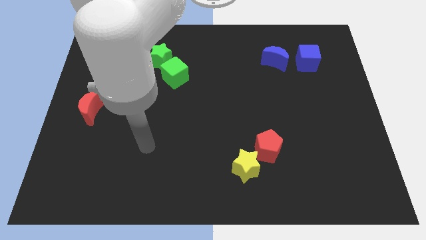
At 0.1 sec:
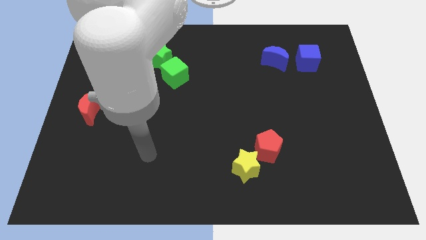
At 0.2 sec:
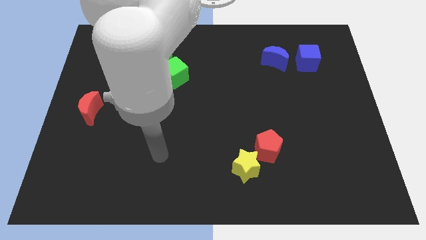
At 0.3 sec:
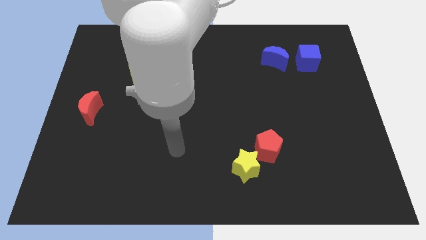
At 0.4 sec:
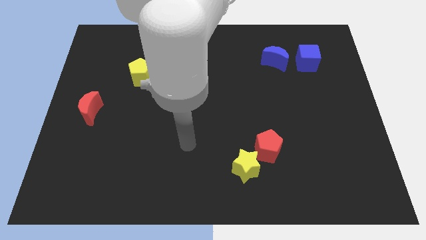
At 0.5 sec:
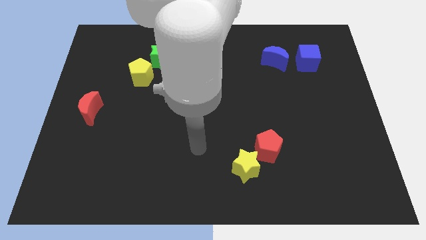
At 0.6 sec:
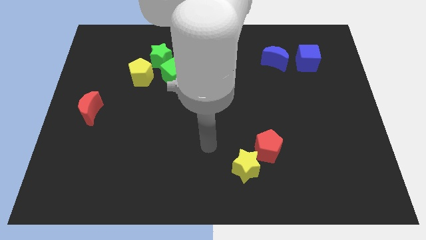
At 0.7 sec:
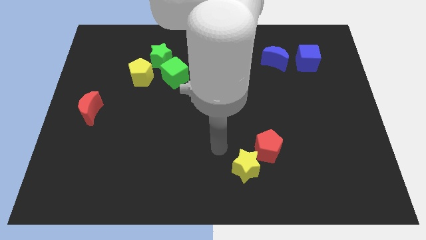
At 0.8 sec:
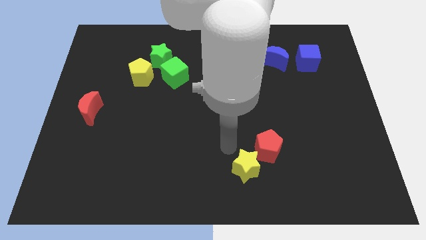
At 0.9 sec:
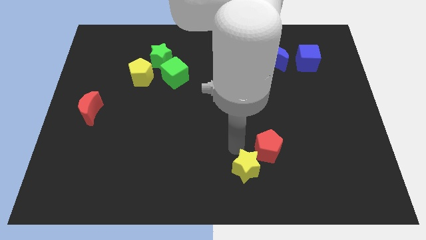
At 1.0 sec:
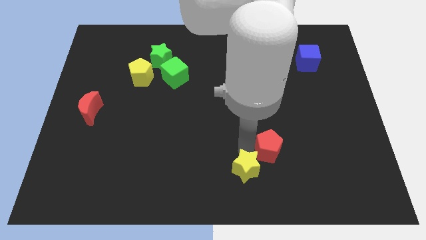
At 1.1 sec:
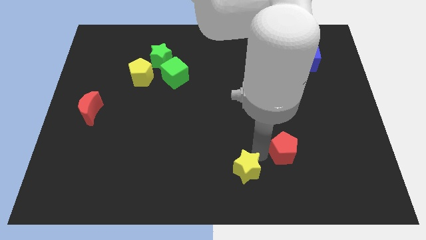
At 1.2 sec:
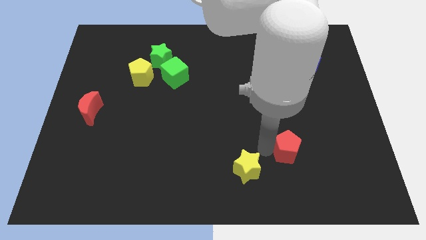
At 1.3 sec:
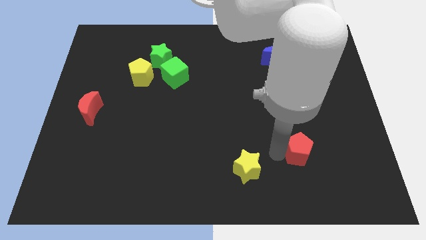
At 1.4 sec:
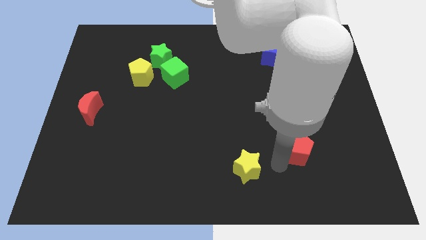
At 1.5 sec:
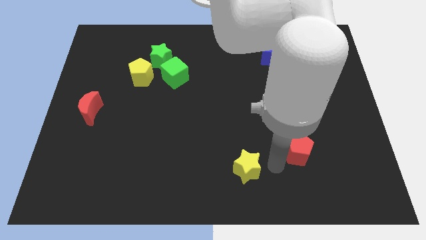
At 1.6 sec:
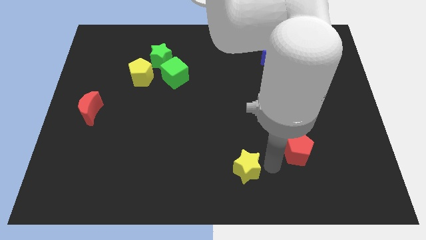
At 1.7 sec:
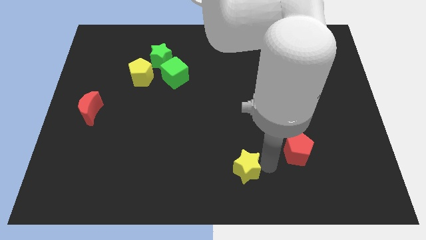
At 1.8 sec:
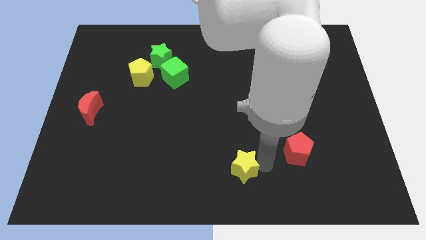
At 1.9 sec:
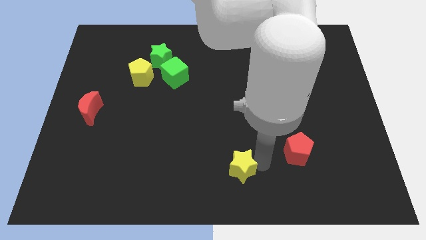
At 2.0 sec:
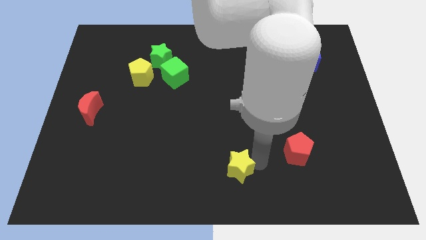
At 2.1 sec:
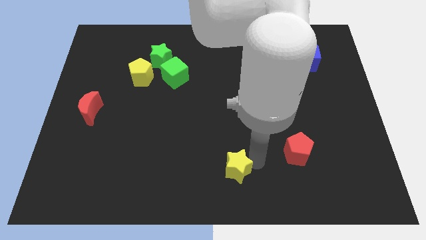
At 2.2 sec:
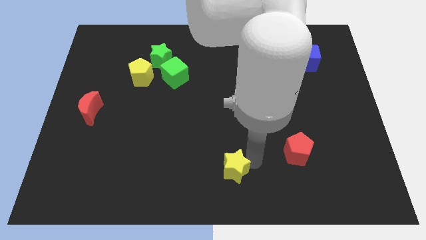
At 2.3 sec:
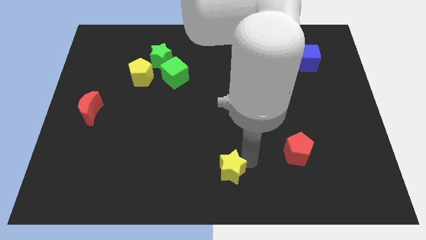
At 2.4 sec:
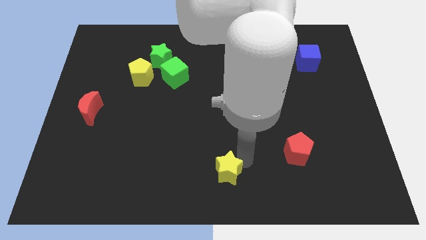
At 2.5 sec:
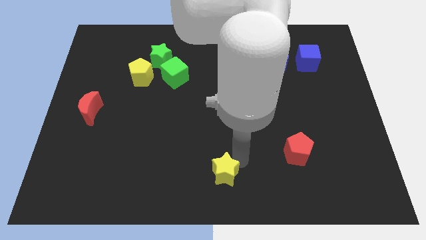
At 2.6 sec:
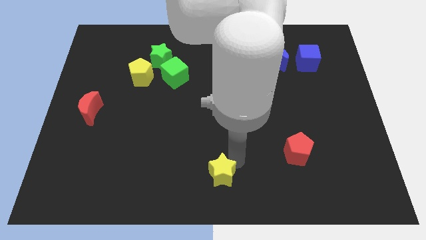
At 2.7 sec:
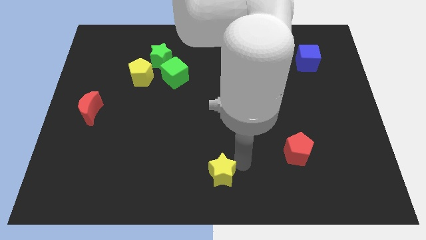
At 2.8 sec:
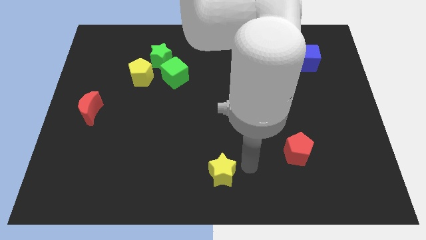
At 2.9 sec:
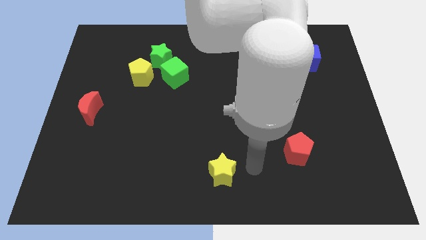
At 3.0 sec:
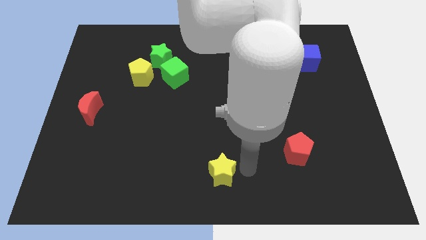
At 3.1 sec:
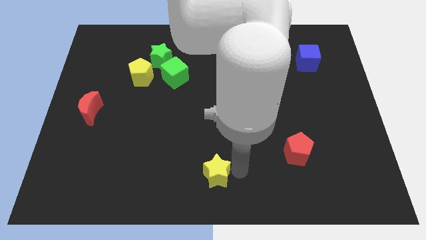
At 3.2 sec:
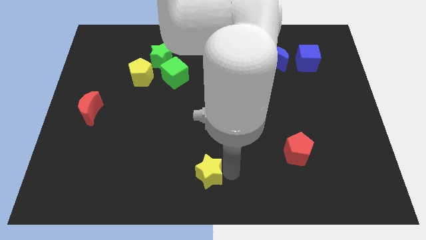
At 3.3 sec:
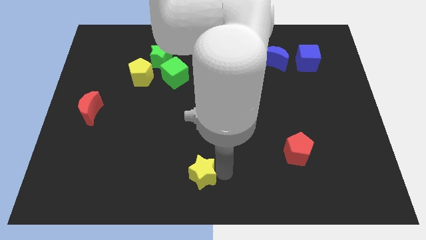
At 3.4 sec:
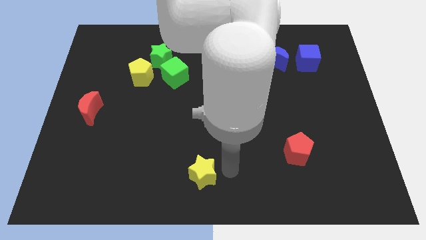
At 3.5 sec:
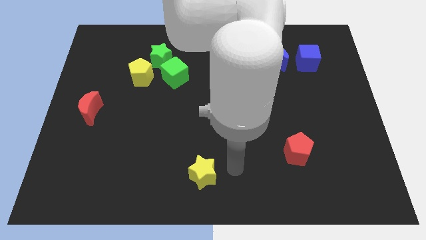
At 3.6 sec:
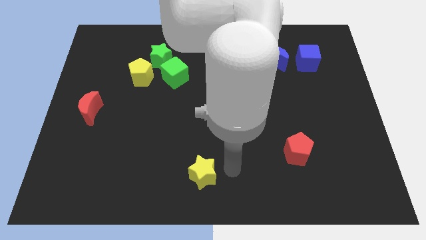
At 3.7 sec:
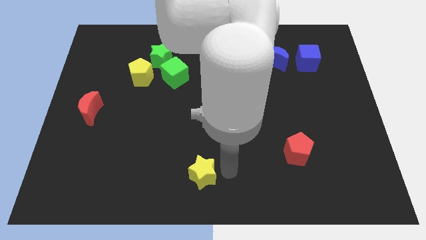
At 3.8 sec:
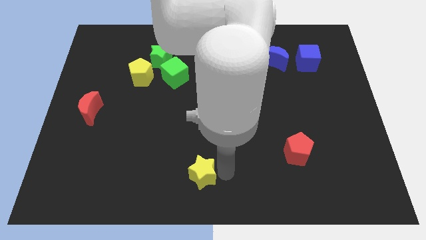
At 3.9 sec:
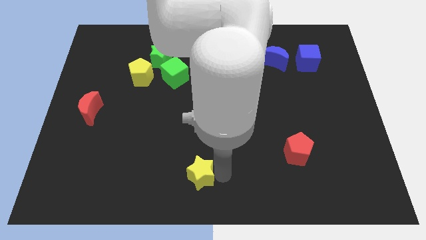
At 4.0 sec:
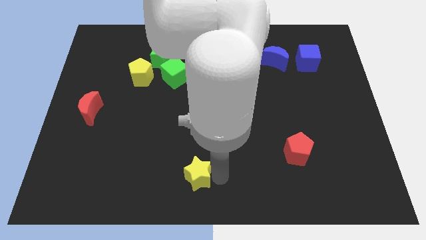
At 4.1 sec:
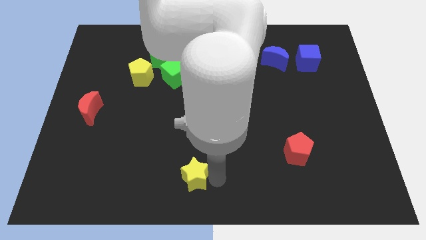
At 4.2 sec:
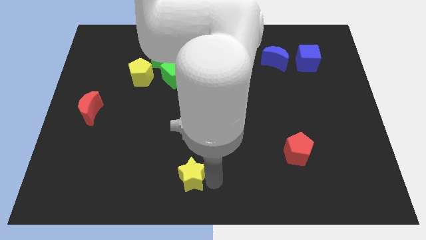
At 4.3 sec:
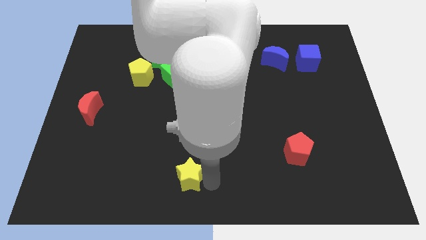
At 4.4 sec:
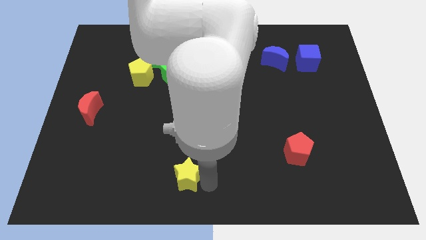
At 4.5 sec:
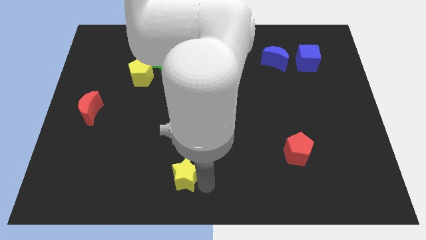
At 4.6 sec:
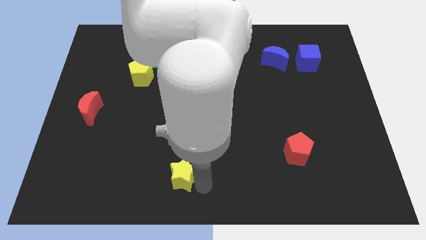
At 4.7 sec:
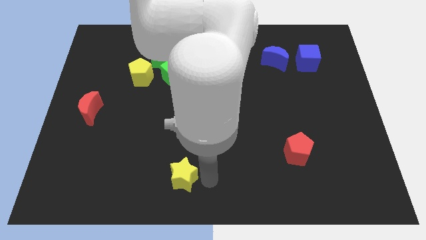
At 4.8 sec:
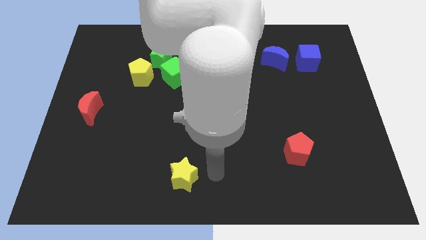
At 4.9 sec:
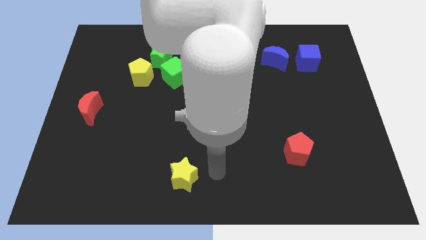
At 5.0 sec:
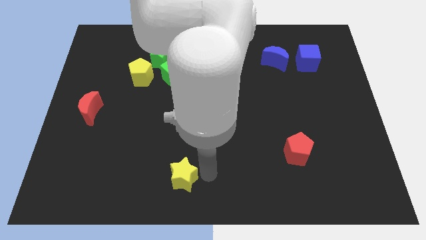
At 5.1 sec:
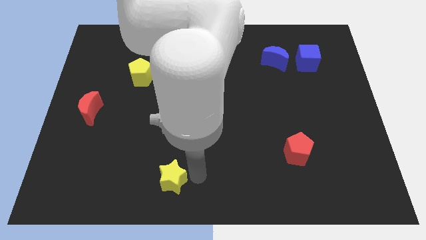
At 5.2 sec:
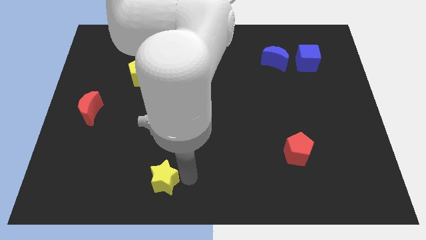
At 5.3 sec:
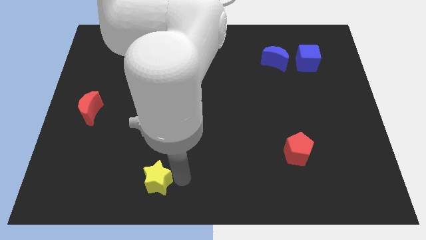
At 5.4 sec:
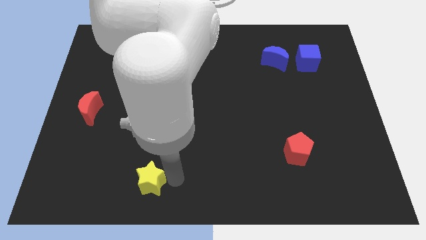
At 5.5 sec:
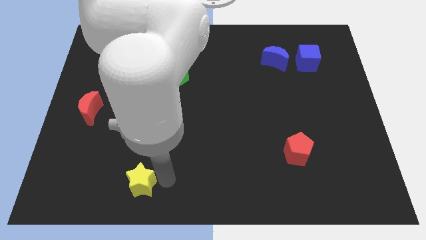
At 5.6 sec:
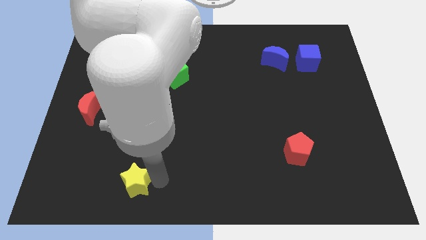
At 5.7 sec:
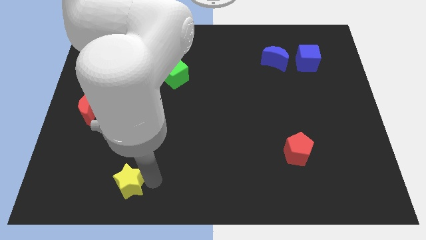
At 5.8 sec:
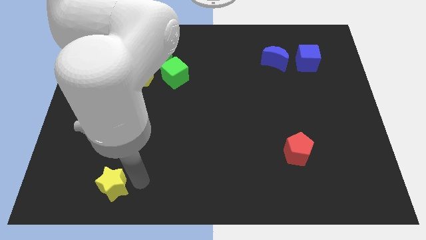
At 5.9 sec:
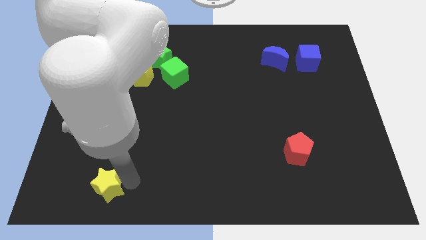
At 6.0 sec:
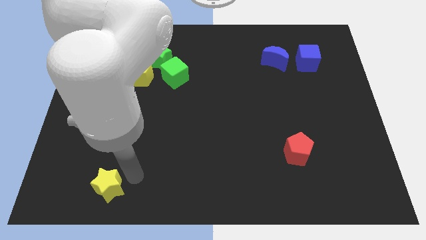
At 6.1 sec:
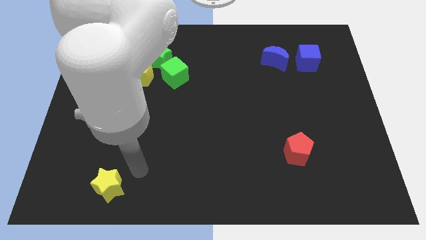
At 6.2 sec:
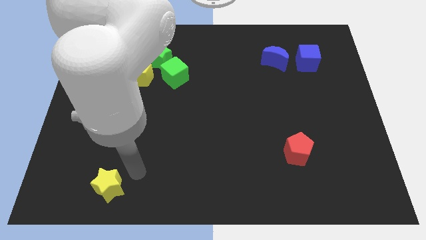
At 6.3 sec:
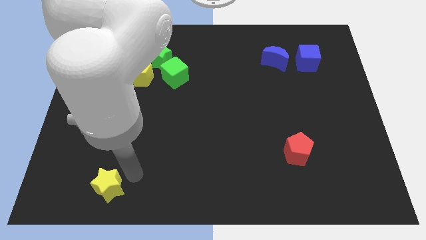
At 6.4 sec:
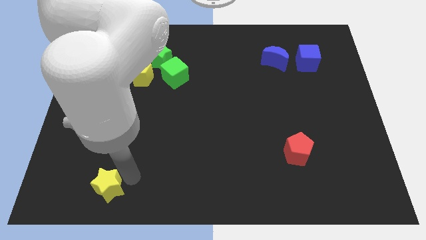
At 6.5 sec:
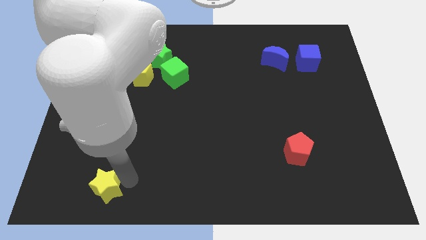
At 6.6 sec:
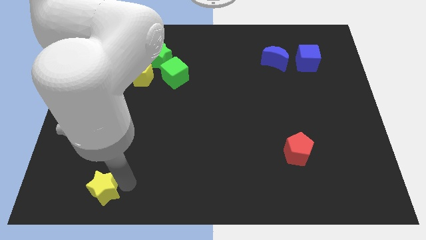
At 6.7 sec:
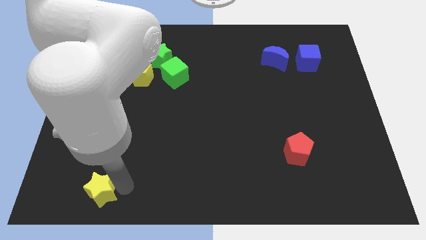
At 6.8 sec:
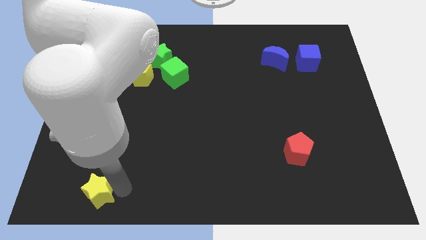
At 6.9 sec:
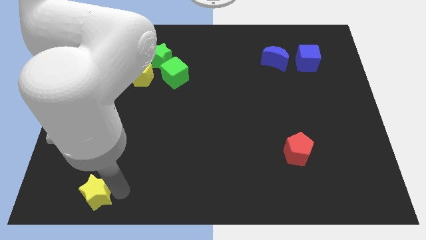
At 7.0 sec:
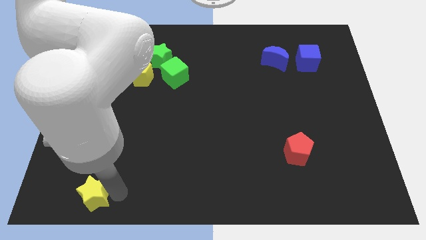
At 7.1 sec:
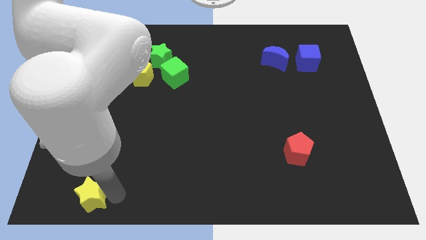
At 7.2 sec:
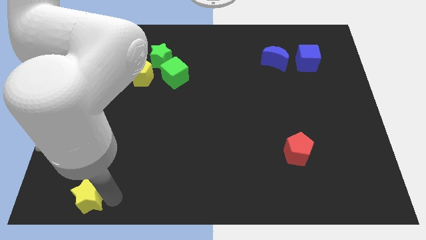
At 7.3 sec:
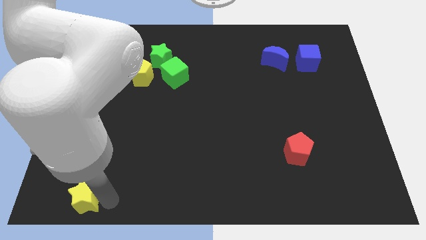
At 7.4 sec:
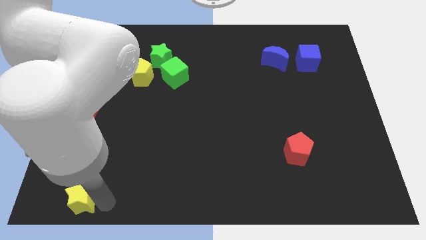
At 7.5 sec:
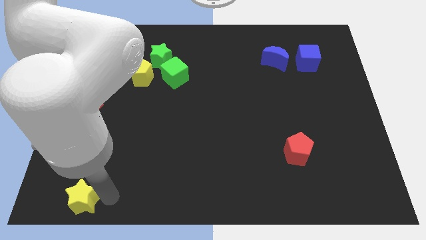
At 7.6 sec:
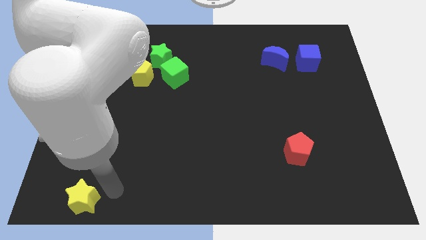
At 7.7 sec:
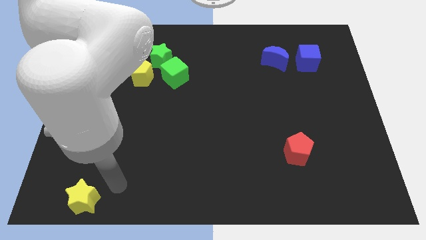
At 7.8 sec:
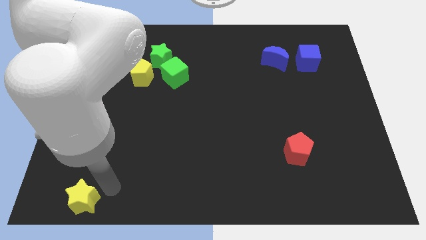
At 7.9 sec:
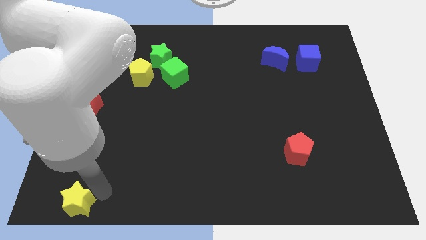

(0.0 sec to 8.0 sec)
slide the yellow star to the bottom left
